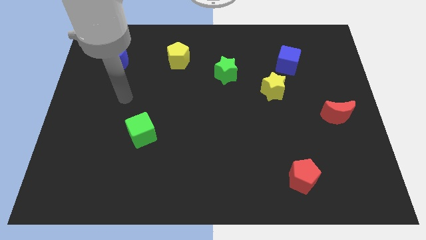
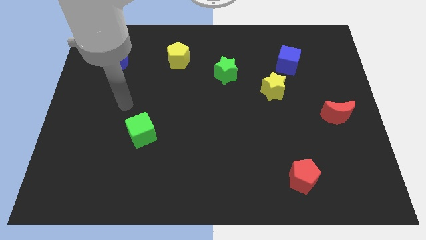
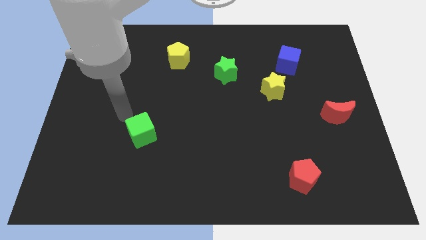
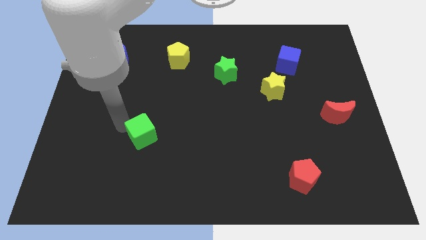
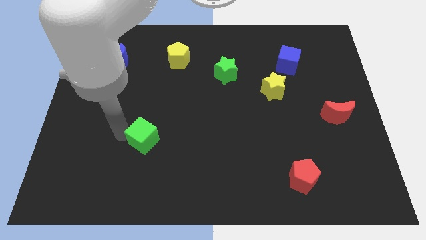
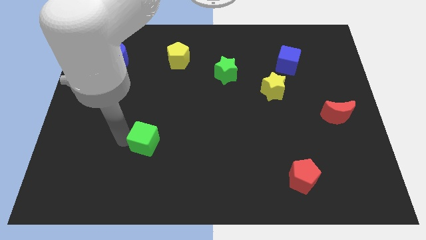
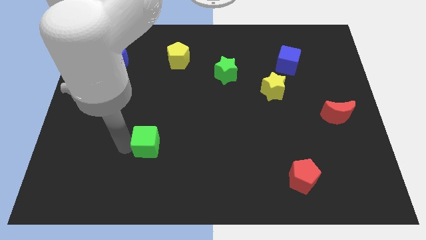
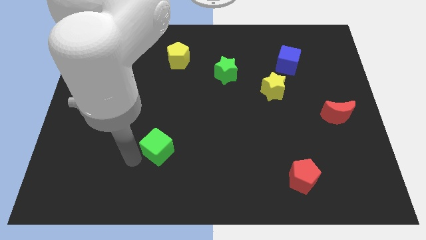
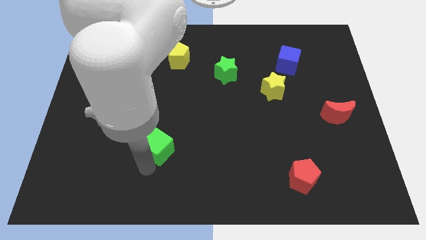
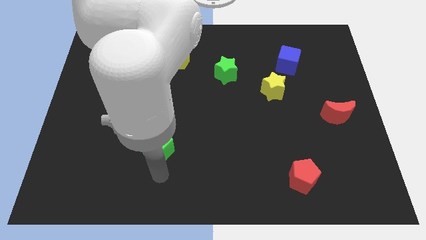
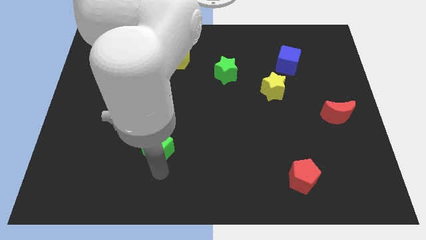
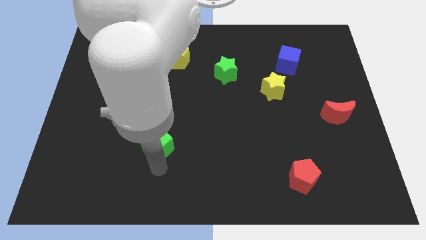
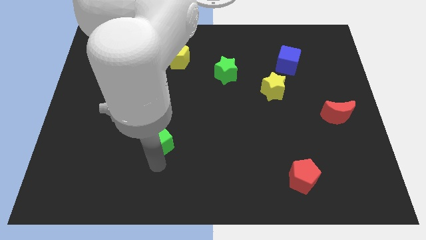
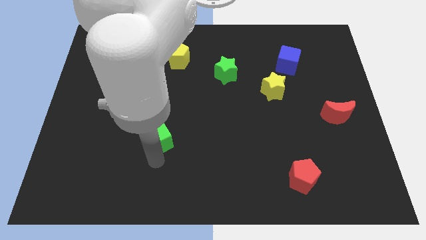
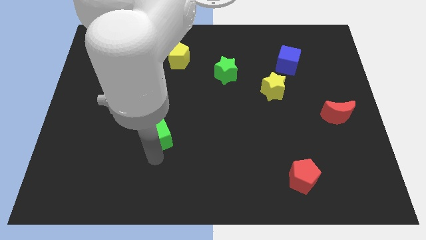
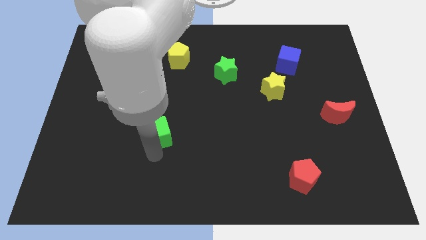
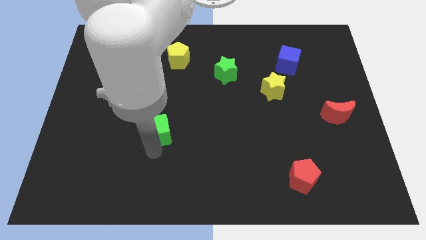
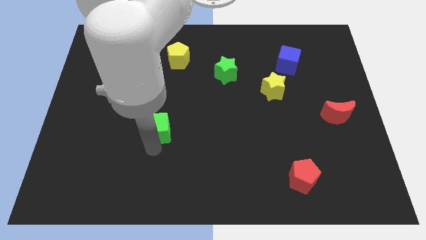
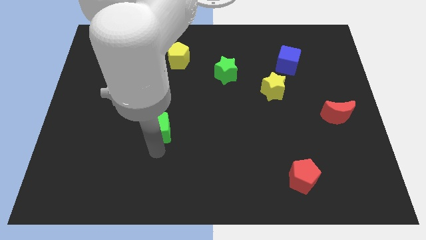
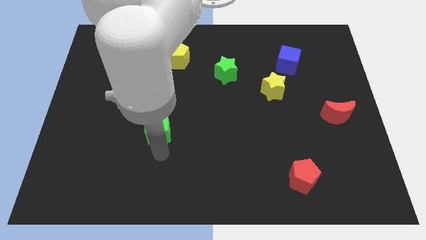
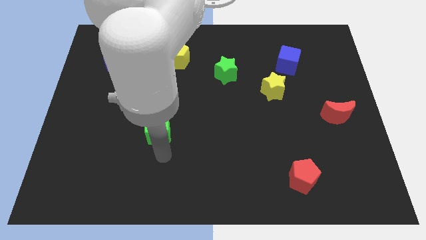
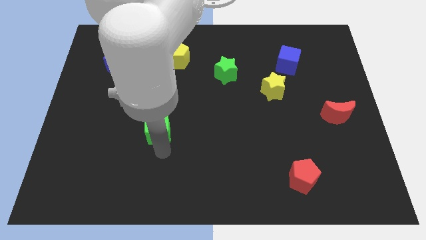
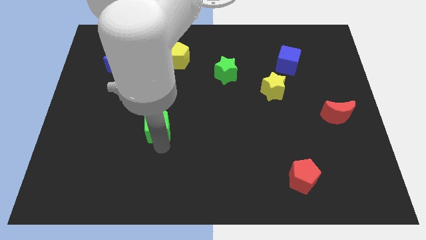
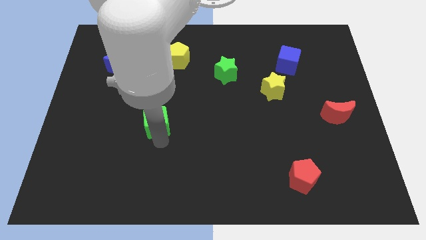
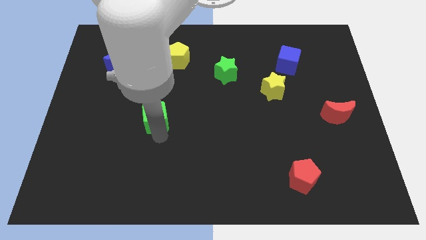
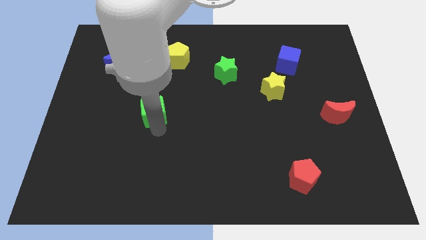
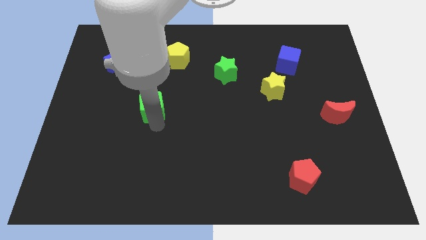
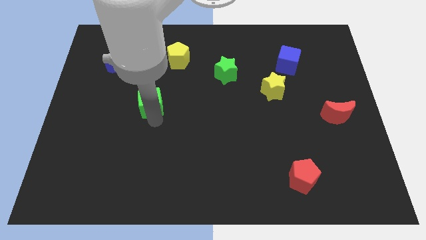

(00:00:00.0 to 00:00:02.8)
slide the green cube up a little bit

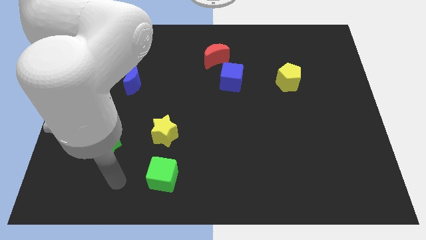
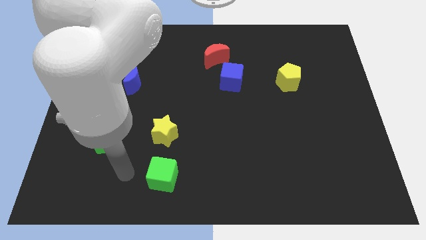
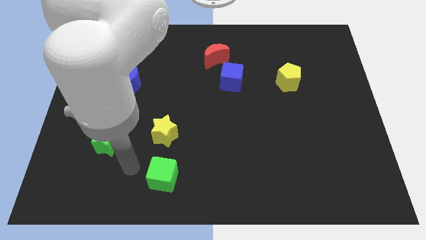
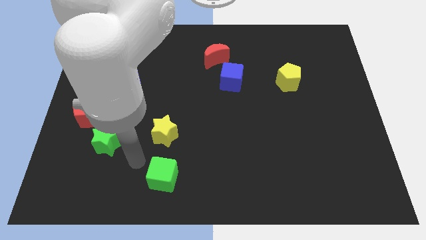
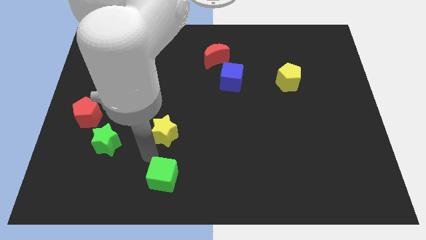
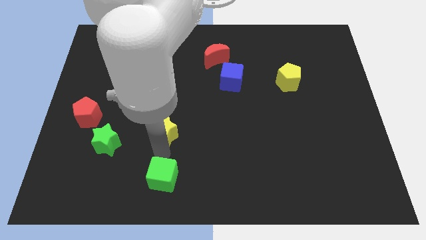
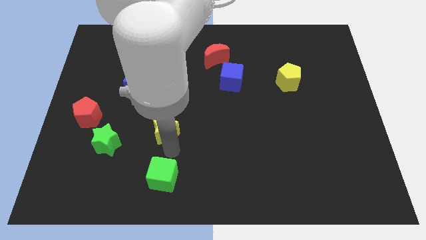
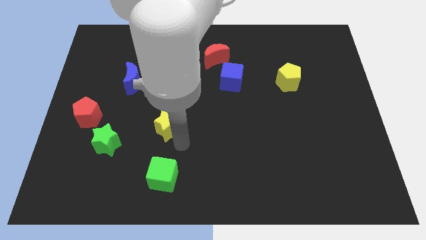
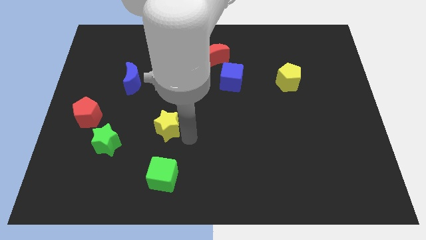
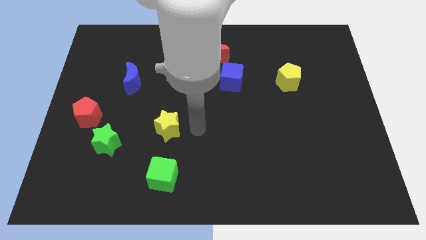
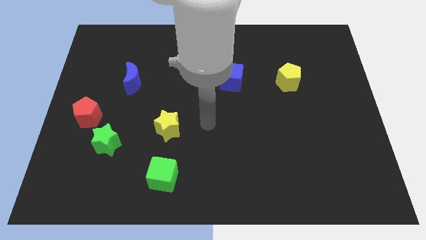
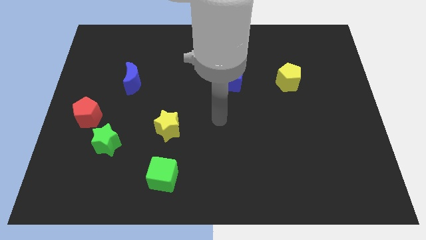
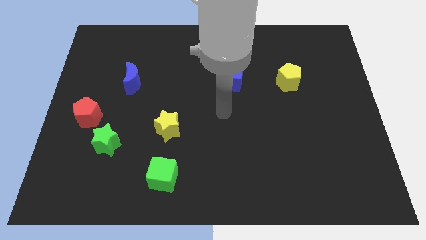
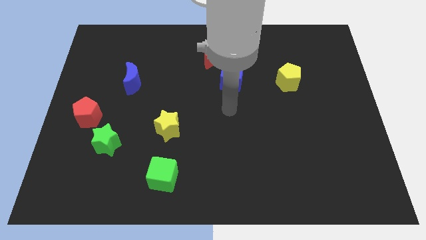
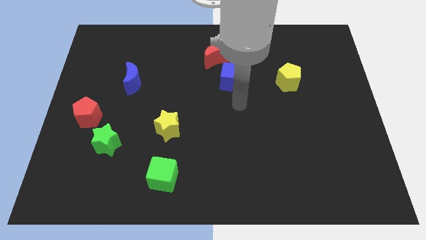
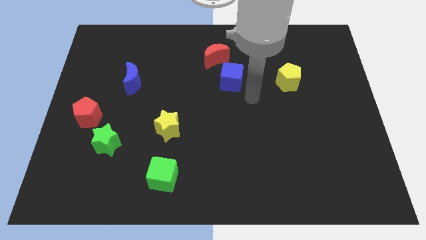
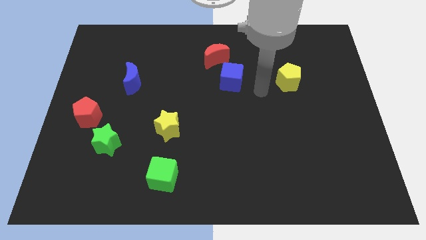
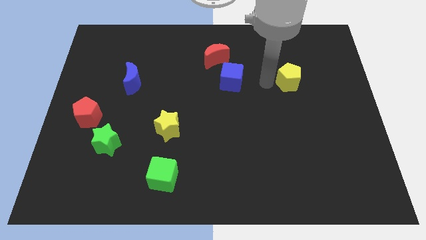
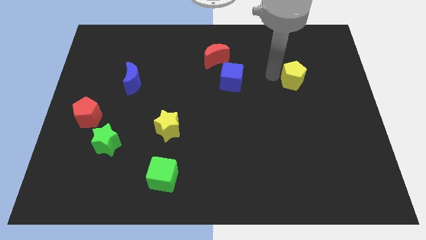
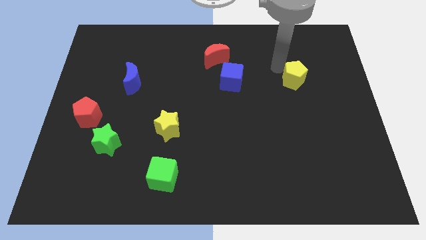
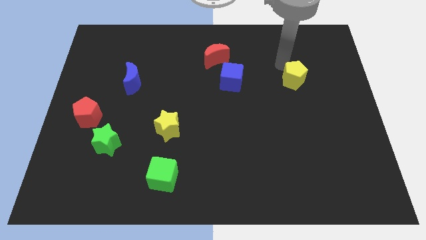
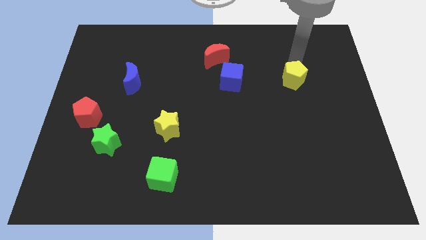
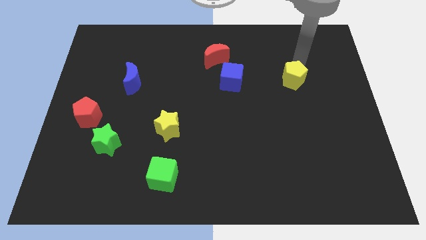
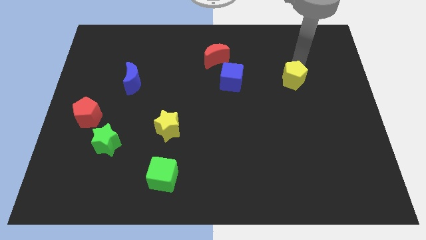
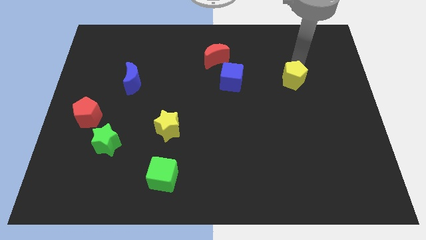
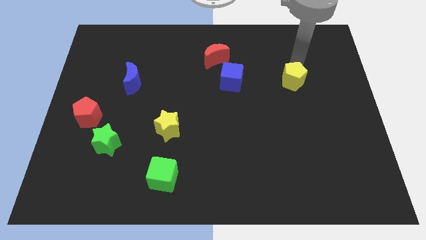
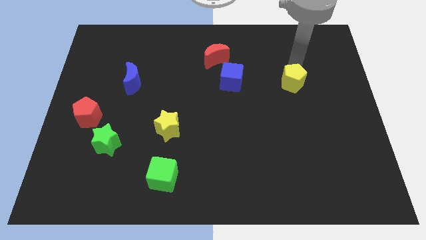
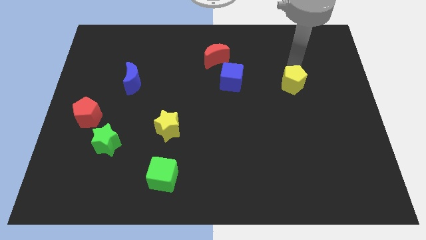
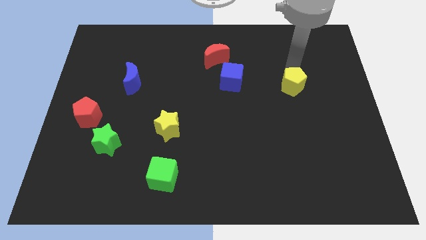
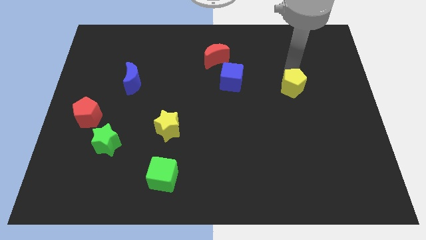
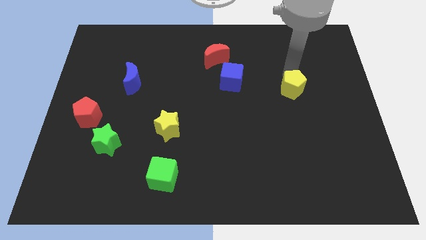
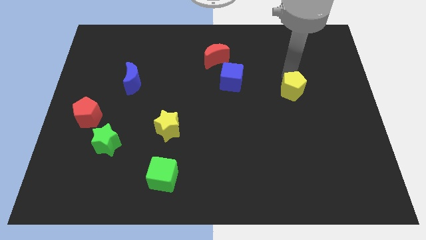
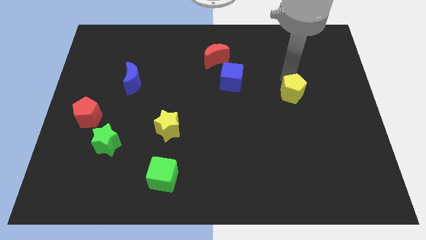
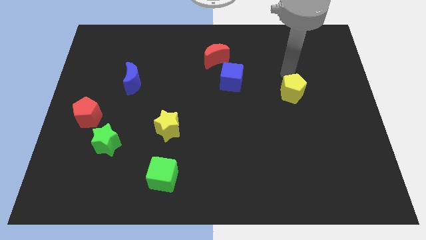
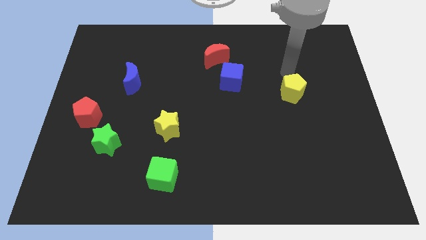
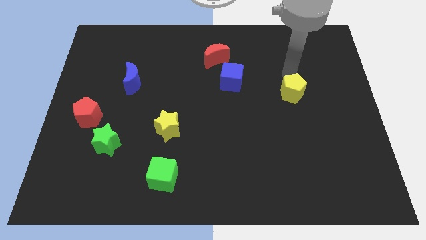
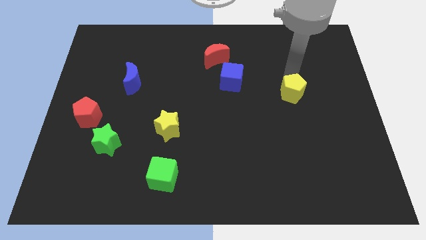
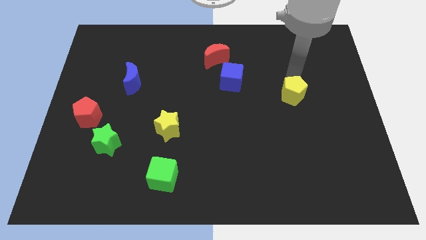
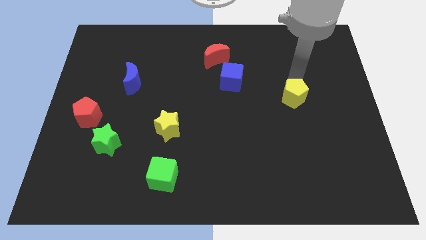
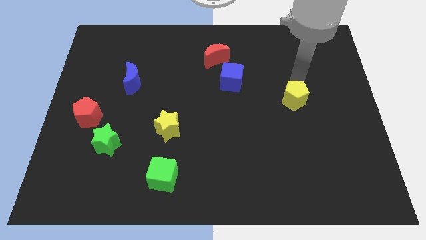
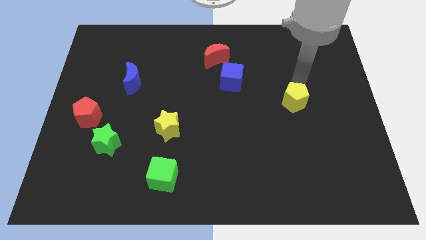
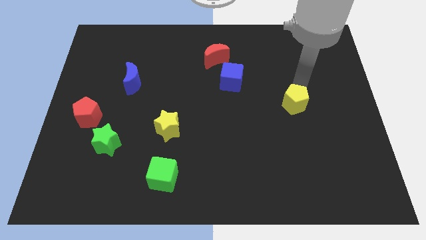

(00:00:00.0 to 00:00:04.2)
slightly slide the yellow pentagon downwards

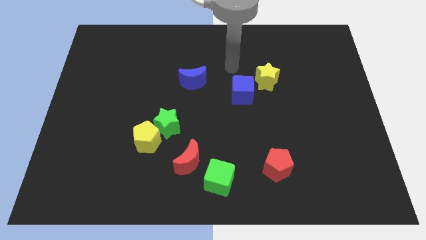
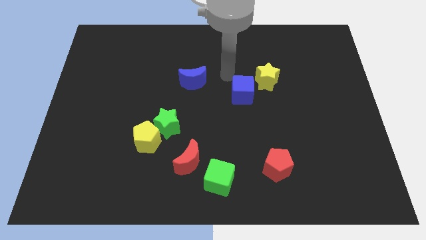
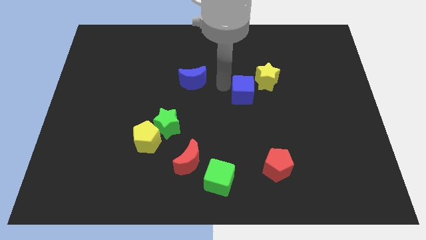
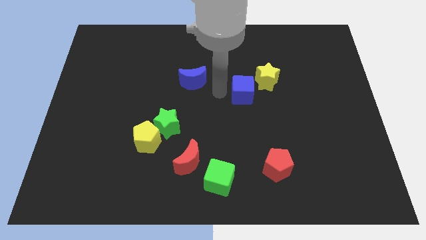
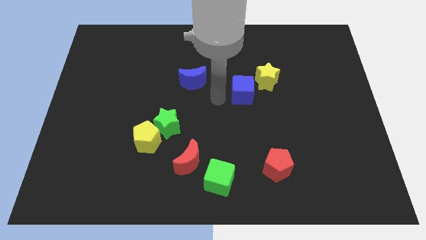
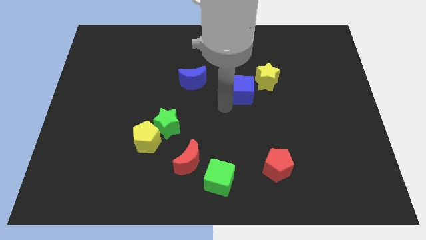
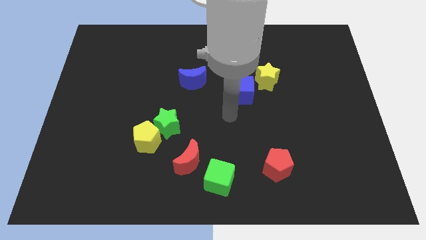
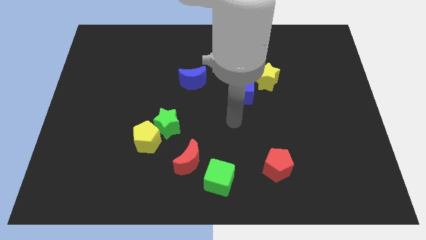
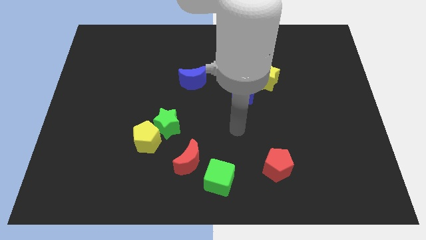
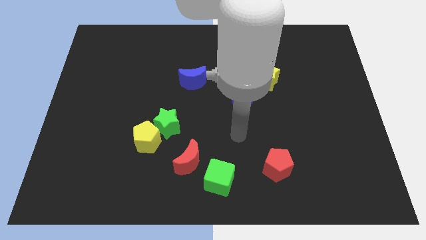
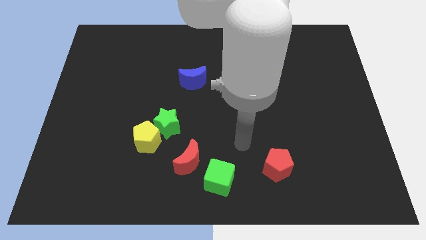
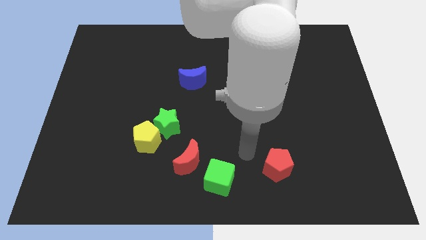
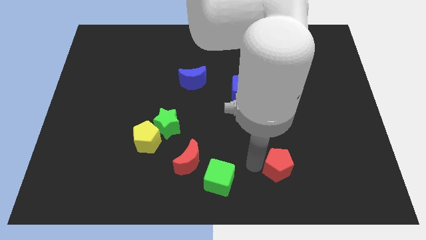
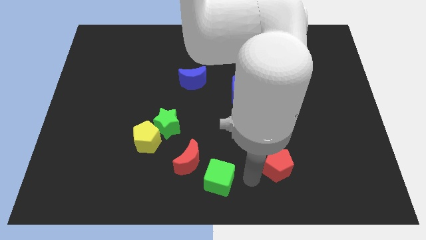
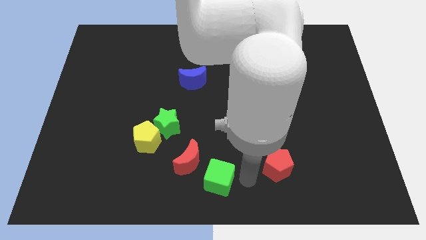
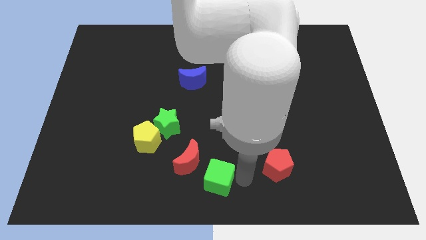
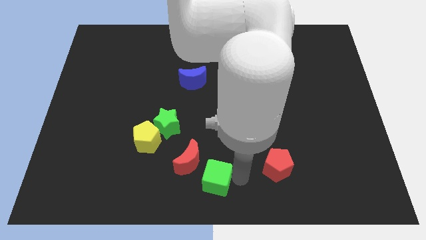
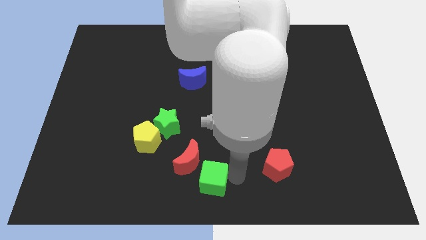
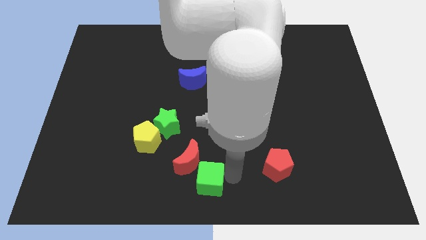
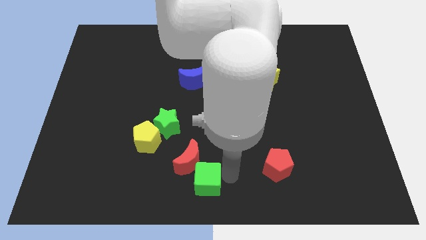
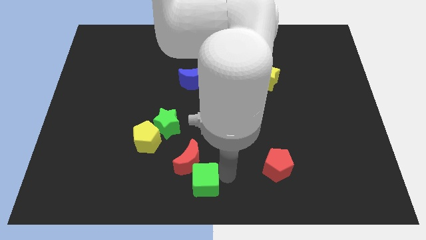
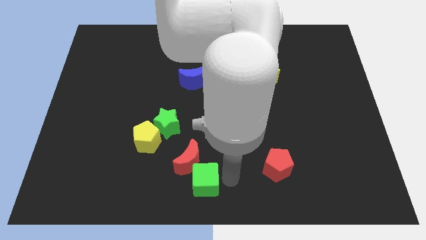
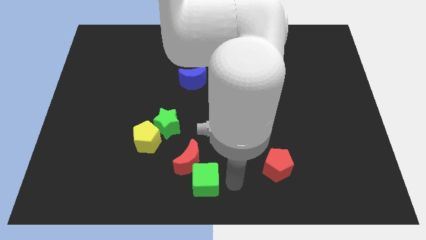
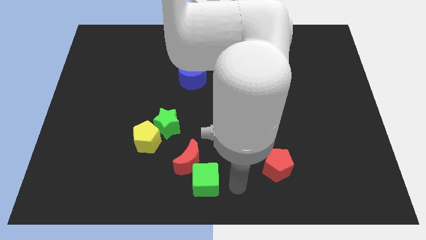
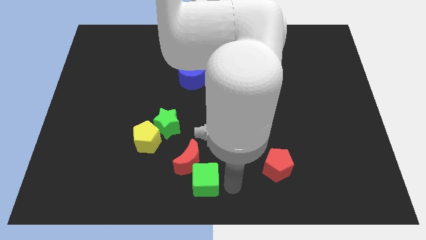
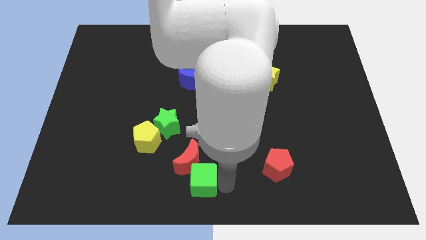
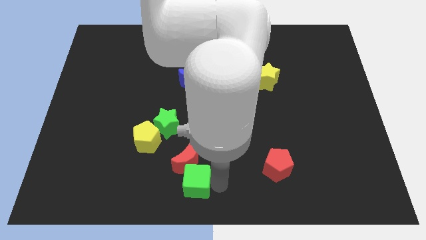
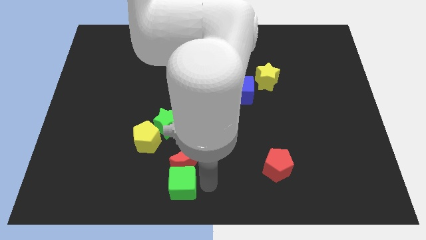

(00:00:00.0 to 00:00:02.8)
push the green cube a little bit to the left
